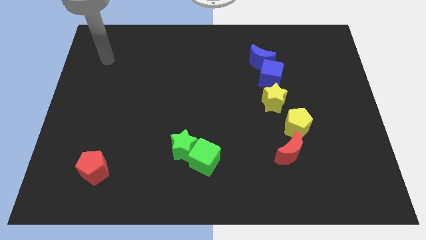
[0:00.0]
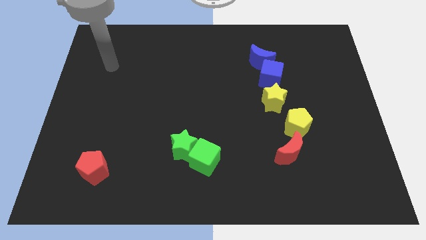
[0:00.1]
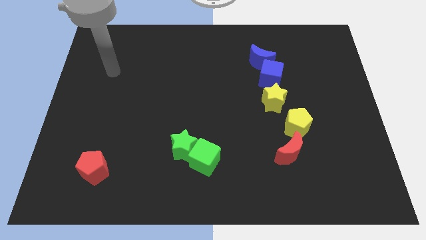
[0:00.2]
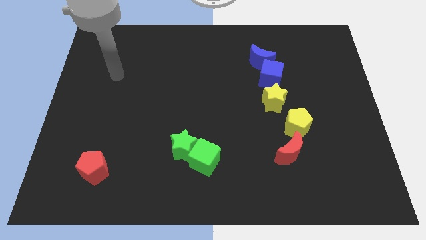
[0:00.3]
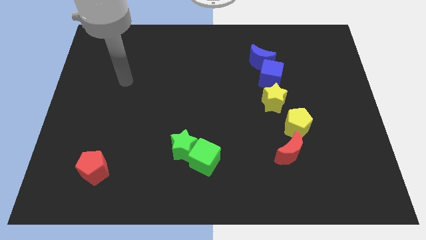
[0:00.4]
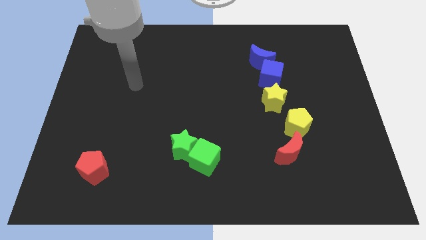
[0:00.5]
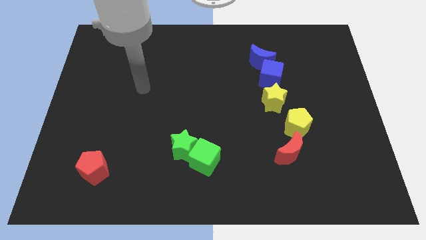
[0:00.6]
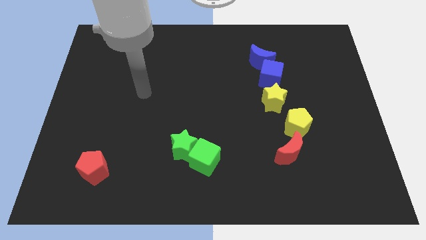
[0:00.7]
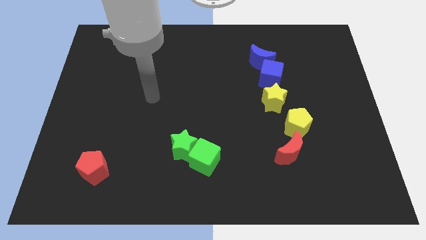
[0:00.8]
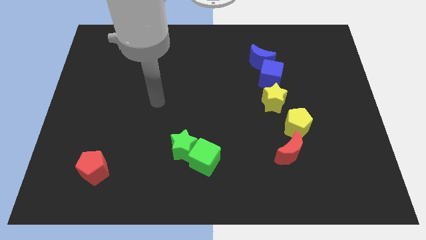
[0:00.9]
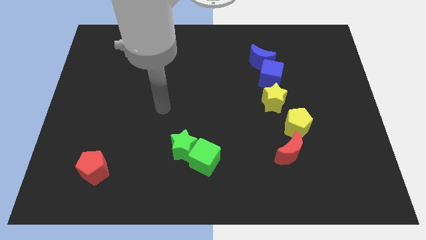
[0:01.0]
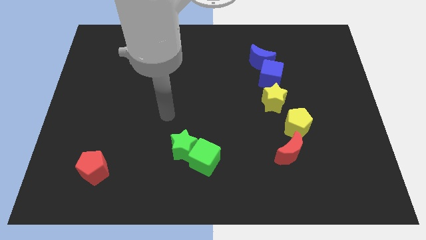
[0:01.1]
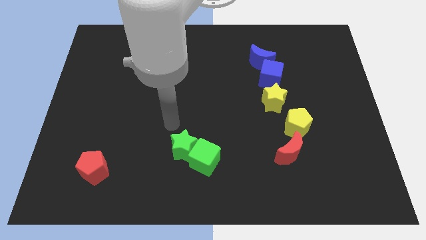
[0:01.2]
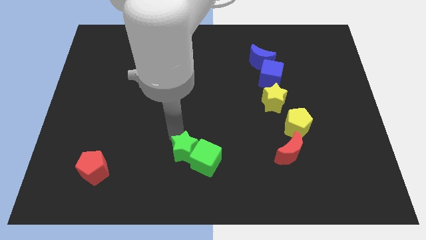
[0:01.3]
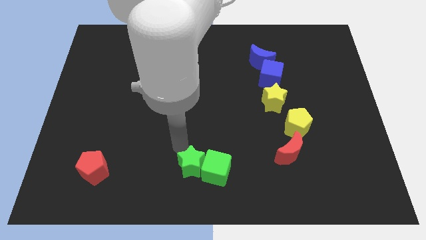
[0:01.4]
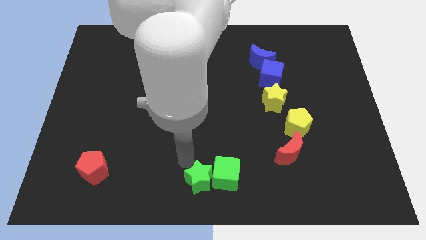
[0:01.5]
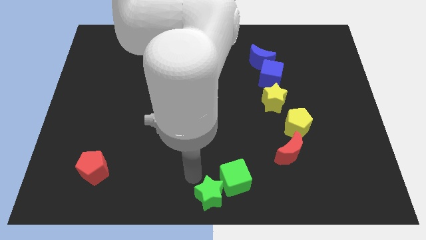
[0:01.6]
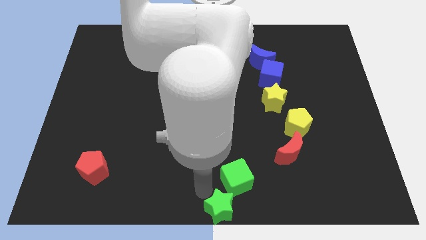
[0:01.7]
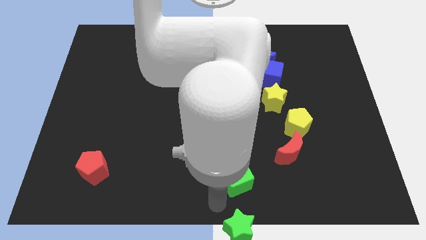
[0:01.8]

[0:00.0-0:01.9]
pull the green cube apart from the green star

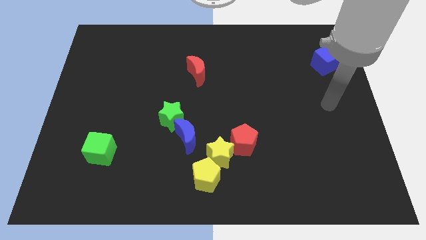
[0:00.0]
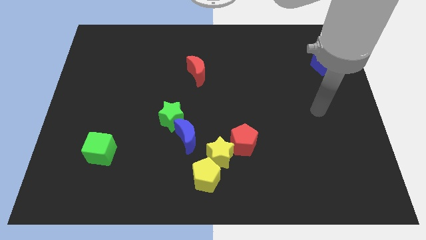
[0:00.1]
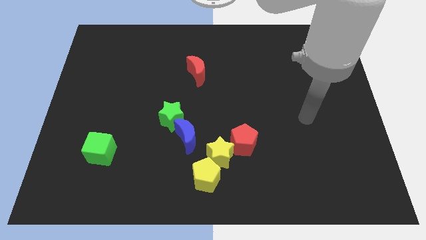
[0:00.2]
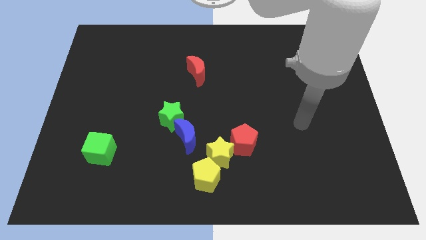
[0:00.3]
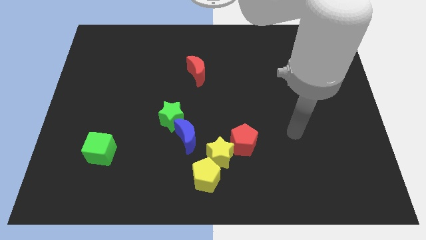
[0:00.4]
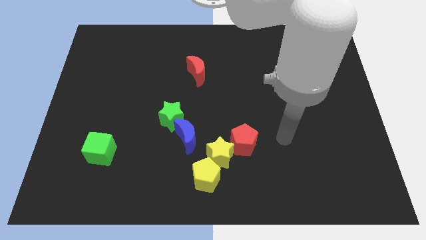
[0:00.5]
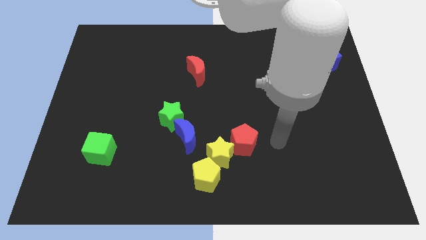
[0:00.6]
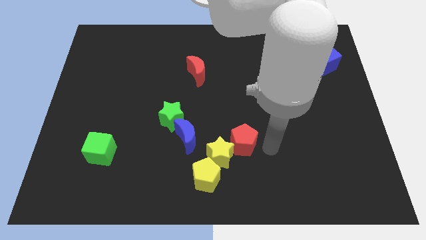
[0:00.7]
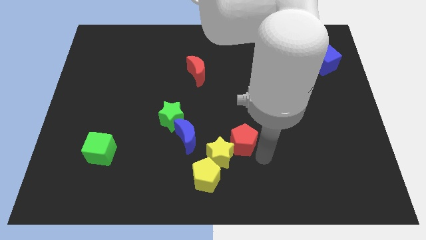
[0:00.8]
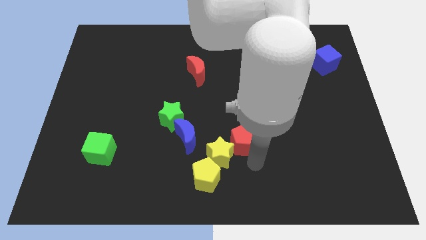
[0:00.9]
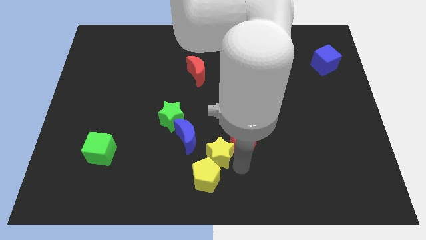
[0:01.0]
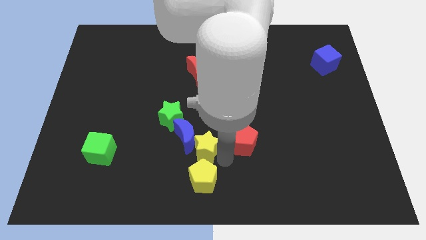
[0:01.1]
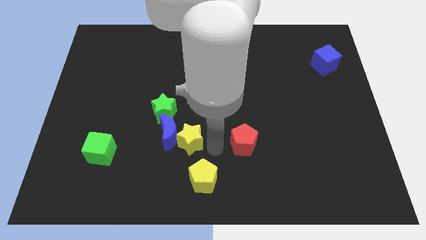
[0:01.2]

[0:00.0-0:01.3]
separate the red pentagon from the yellow star

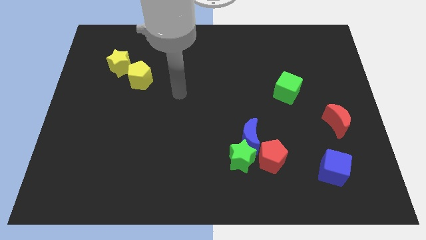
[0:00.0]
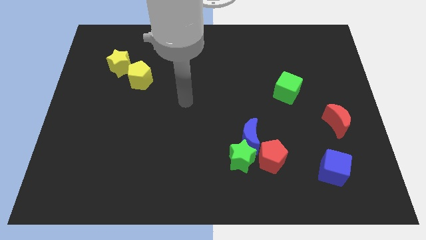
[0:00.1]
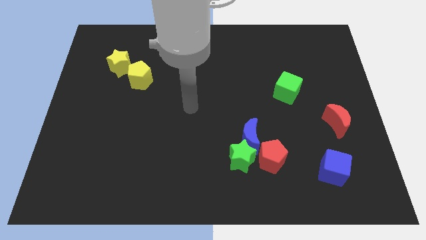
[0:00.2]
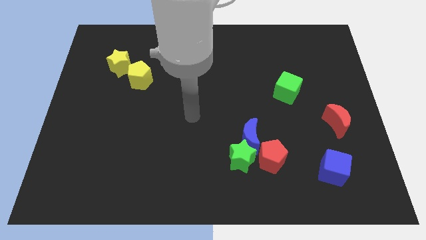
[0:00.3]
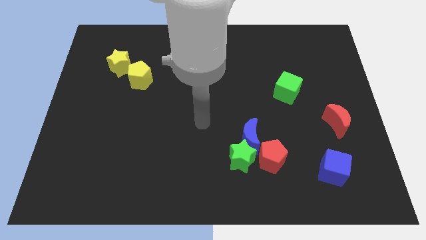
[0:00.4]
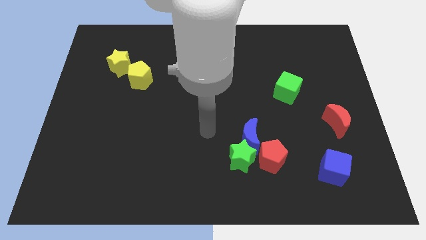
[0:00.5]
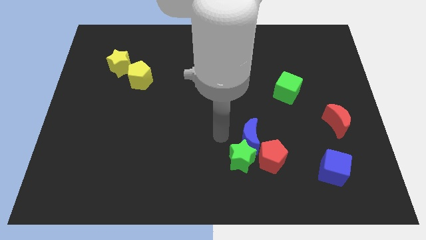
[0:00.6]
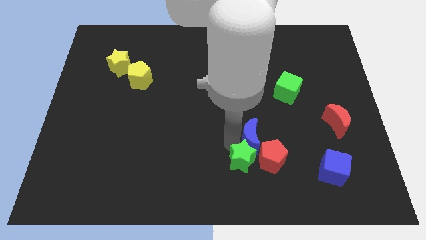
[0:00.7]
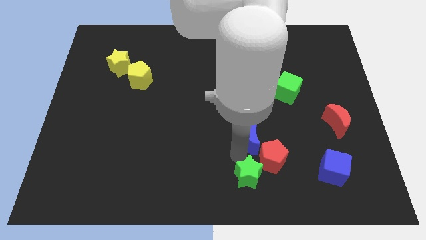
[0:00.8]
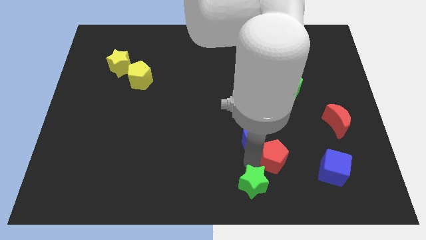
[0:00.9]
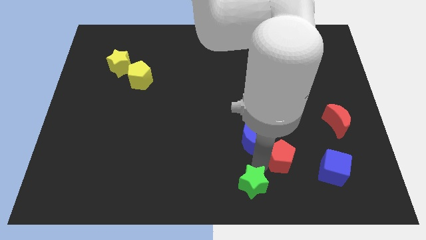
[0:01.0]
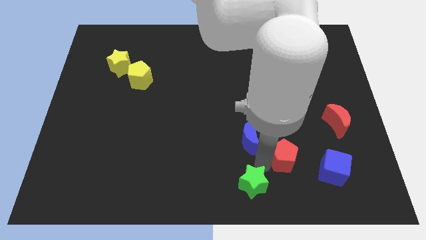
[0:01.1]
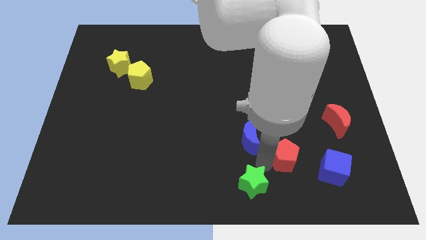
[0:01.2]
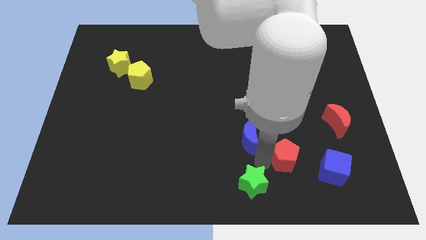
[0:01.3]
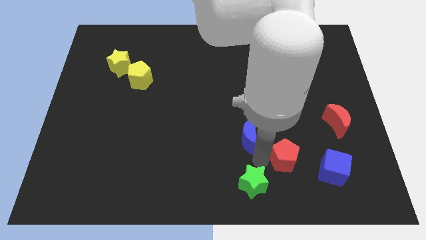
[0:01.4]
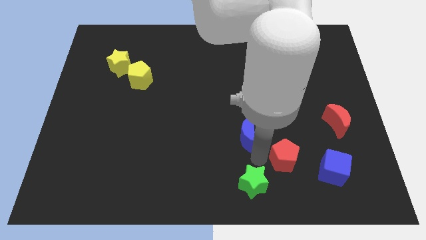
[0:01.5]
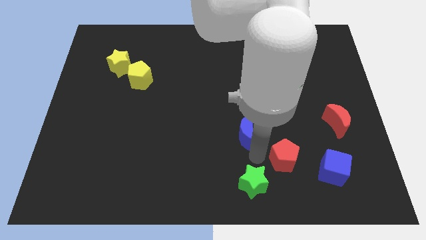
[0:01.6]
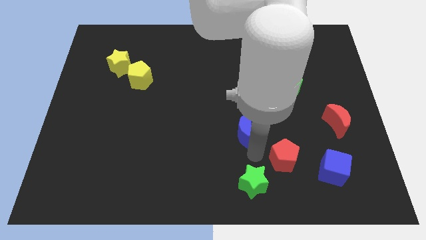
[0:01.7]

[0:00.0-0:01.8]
pull the blue moon apart from the green star and red pentagon

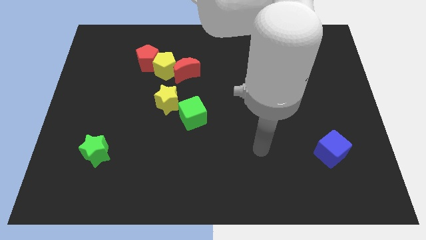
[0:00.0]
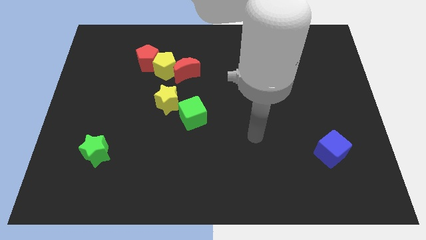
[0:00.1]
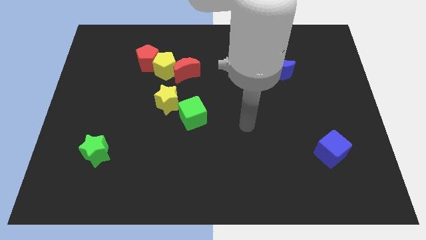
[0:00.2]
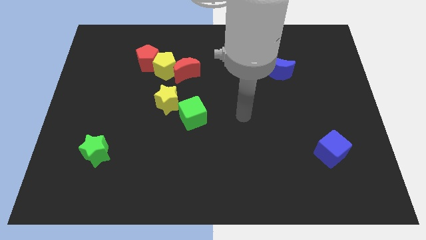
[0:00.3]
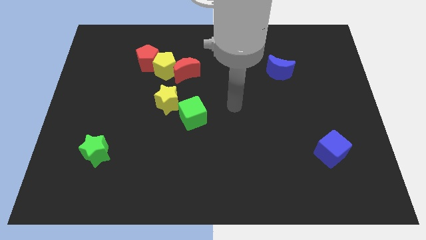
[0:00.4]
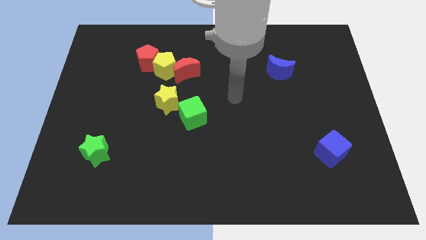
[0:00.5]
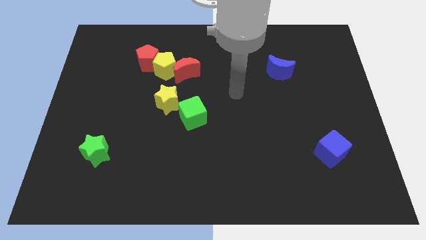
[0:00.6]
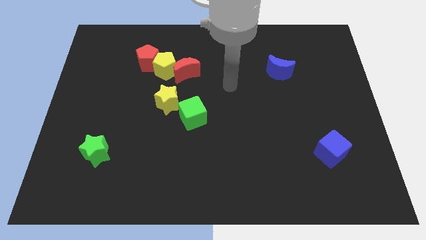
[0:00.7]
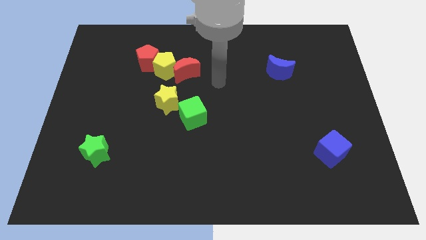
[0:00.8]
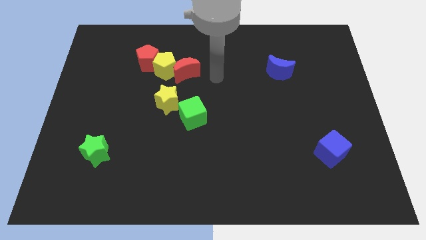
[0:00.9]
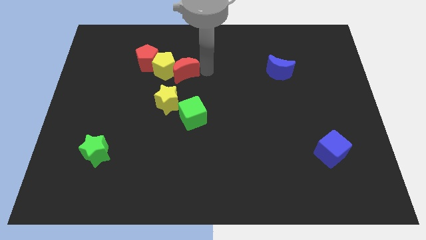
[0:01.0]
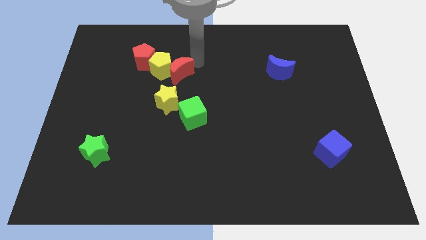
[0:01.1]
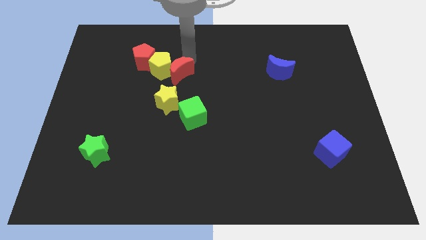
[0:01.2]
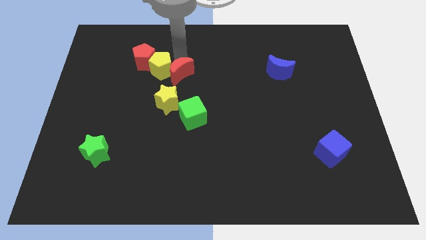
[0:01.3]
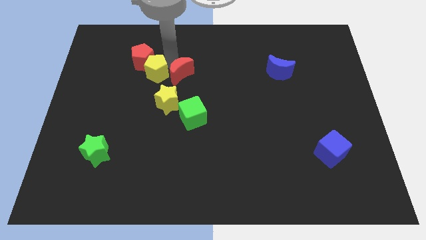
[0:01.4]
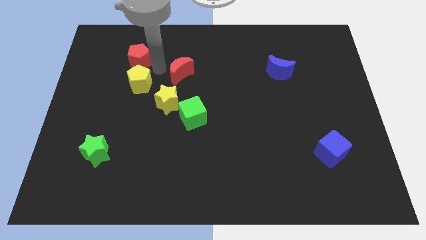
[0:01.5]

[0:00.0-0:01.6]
pull the red moon apart from the yellow pentagon

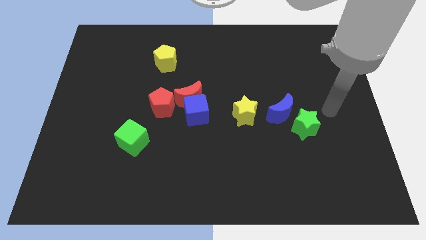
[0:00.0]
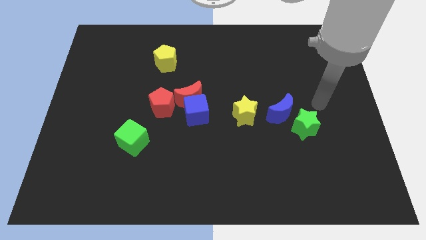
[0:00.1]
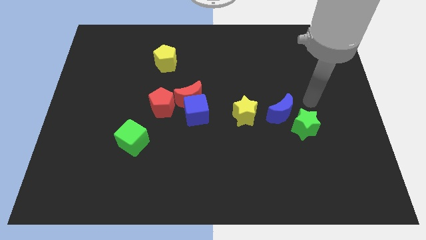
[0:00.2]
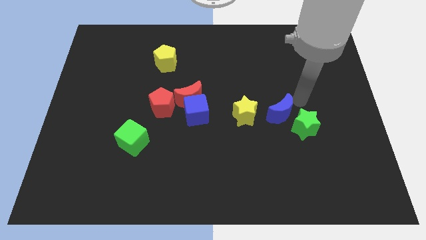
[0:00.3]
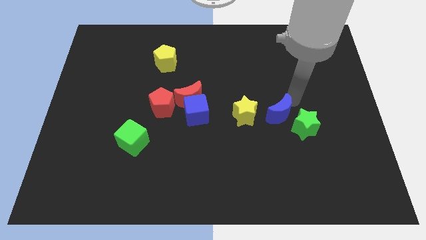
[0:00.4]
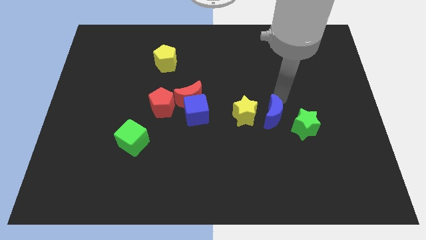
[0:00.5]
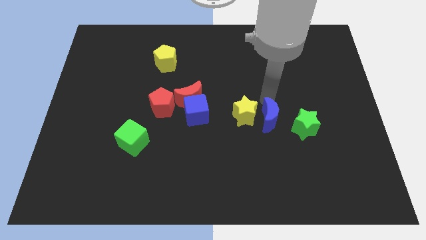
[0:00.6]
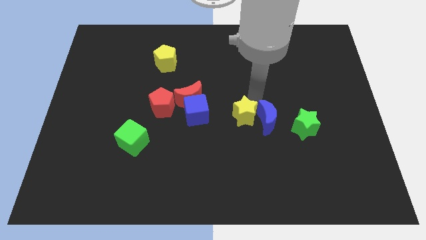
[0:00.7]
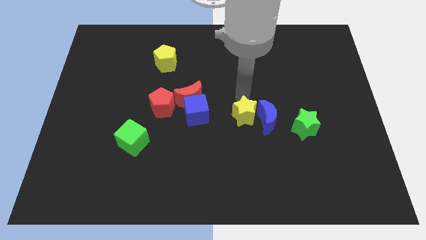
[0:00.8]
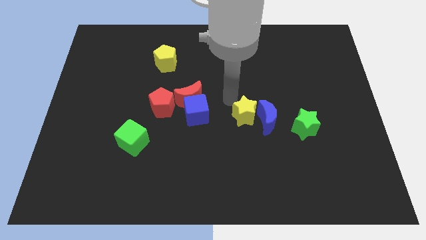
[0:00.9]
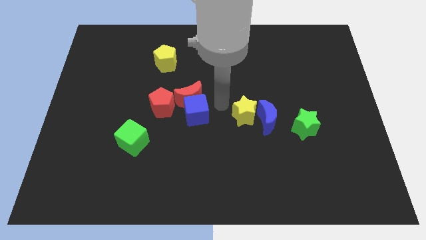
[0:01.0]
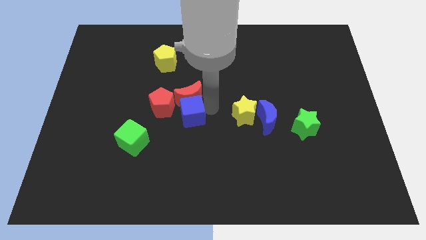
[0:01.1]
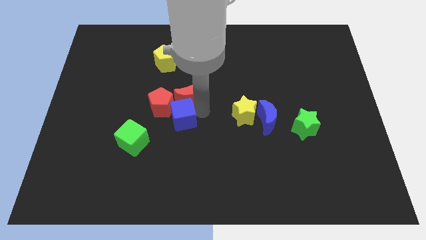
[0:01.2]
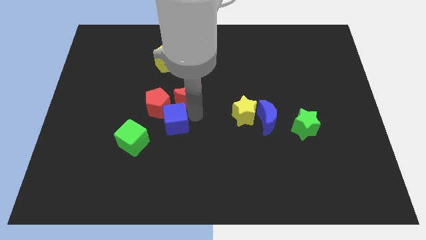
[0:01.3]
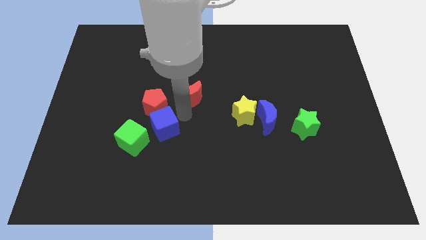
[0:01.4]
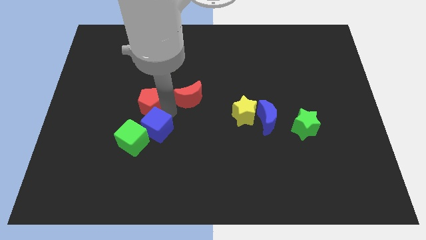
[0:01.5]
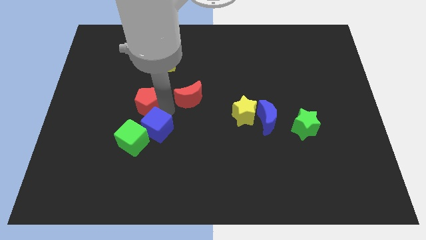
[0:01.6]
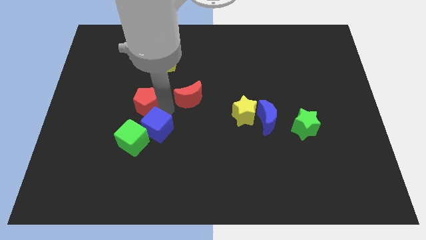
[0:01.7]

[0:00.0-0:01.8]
move the red moon away from the blue cube and red pentagon

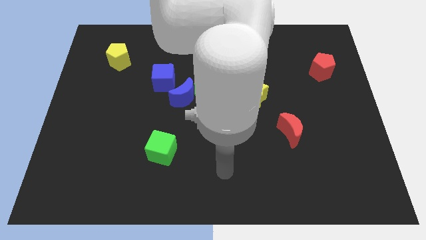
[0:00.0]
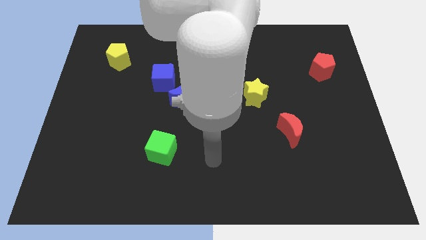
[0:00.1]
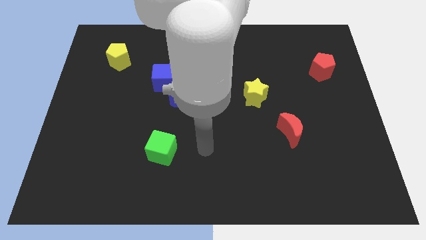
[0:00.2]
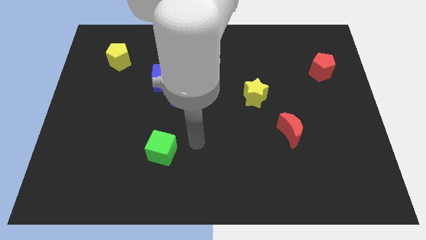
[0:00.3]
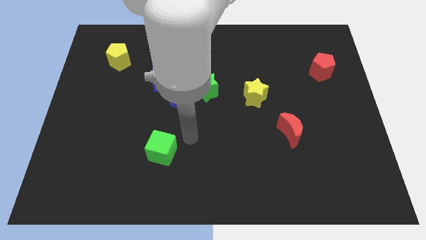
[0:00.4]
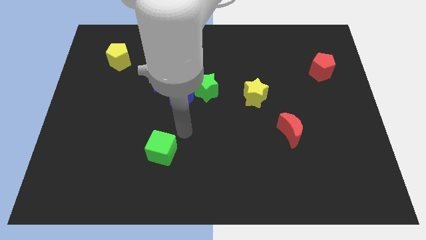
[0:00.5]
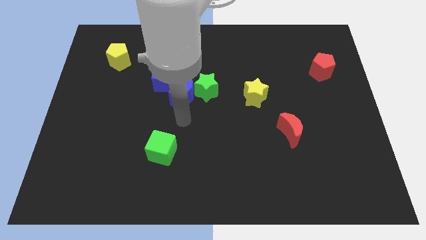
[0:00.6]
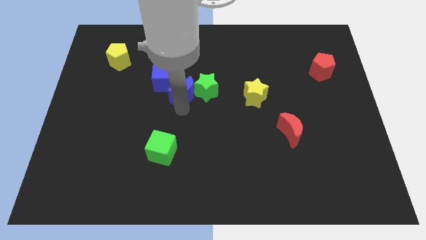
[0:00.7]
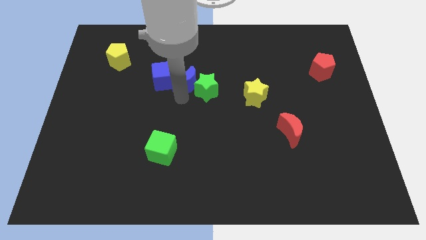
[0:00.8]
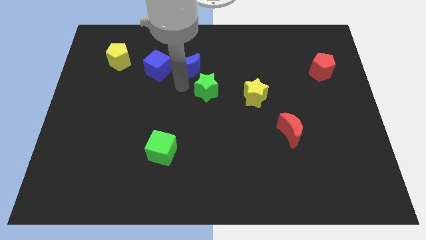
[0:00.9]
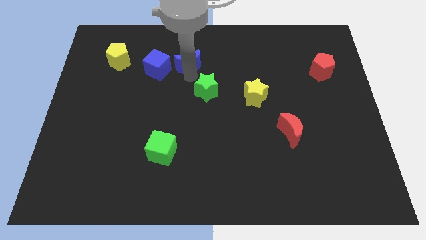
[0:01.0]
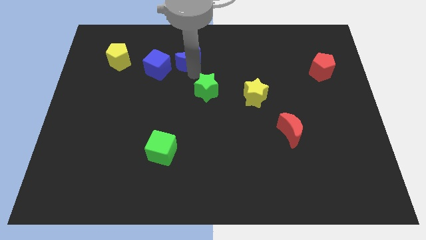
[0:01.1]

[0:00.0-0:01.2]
move the green star away from the blue moon
